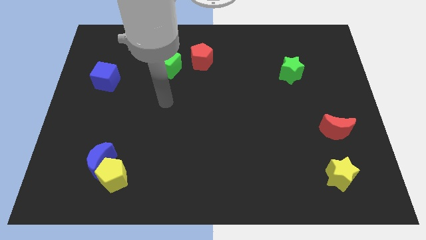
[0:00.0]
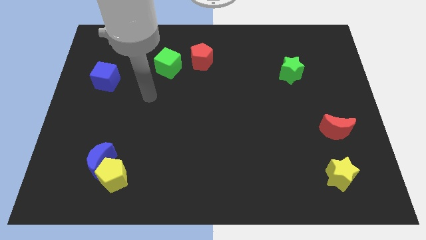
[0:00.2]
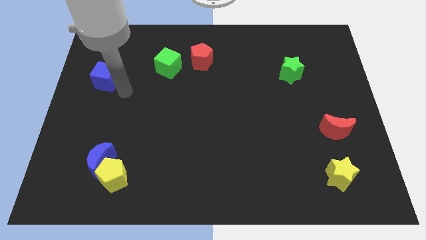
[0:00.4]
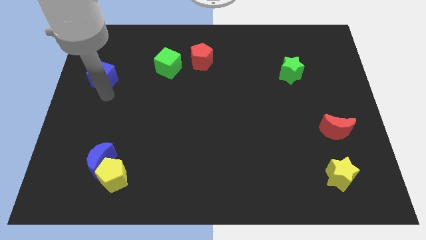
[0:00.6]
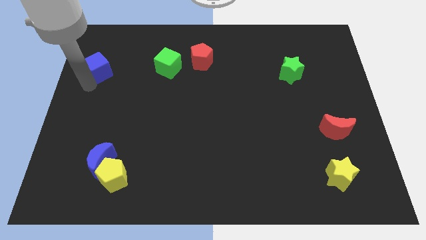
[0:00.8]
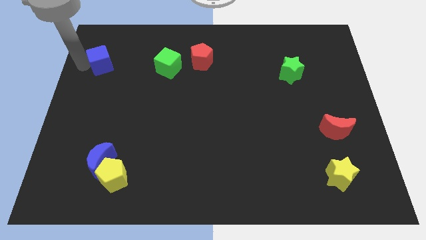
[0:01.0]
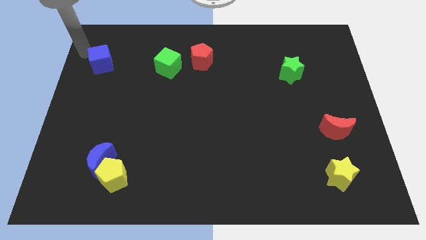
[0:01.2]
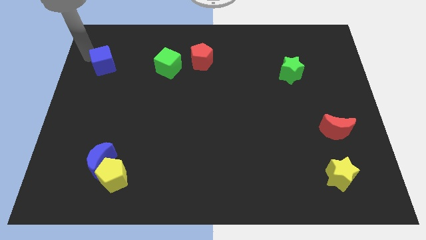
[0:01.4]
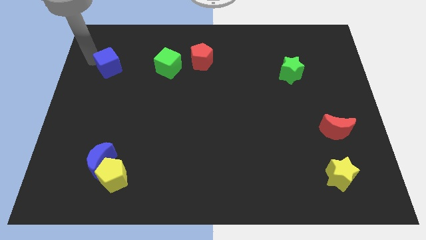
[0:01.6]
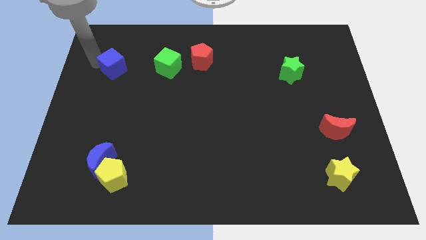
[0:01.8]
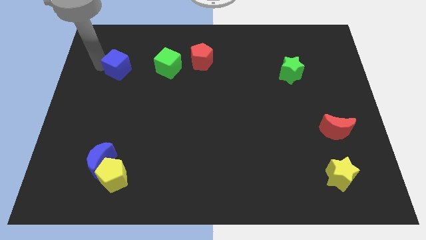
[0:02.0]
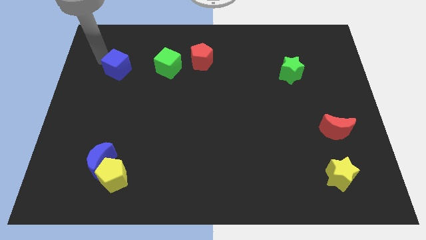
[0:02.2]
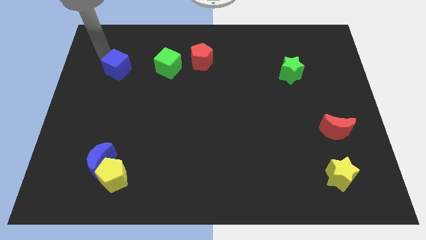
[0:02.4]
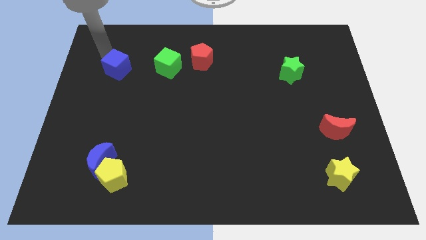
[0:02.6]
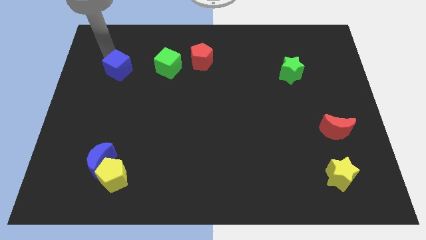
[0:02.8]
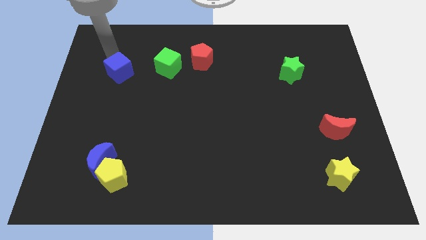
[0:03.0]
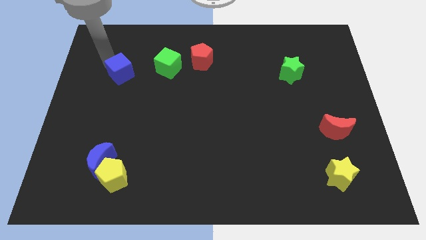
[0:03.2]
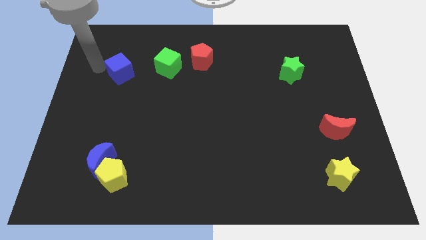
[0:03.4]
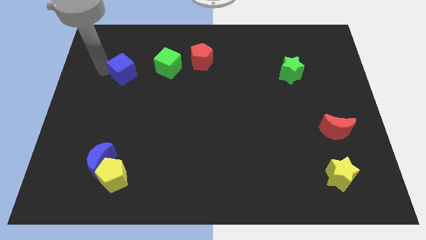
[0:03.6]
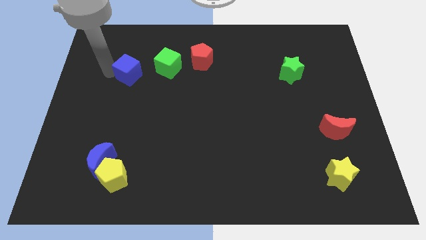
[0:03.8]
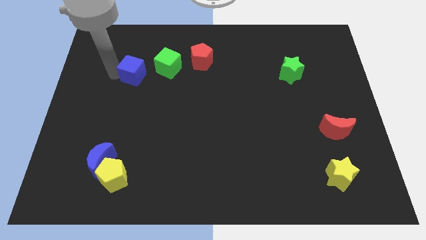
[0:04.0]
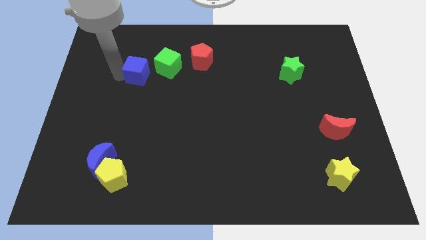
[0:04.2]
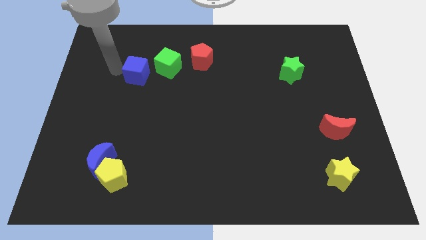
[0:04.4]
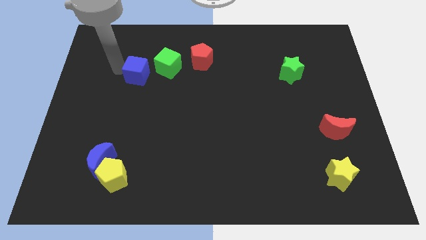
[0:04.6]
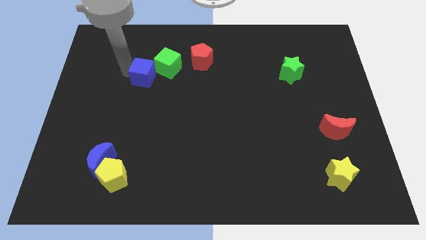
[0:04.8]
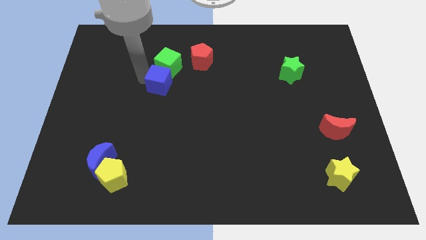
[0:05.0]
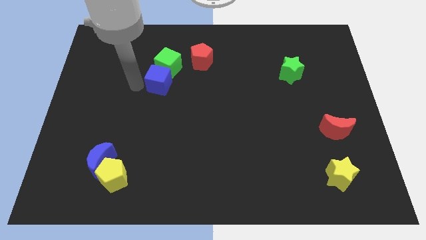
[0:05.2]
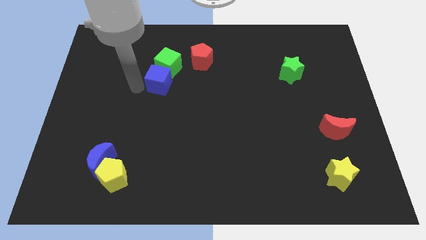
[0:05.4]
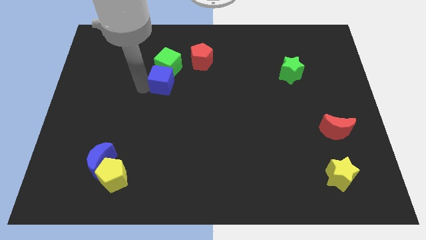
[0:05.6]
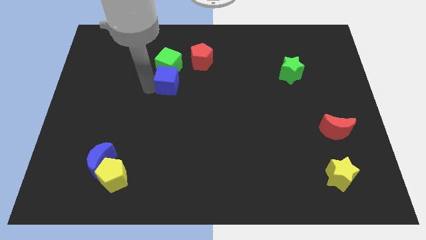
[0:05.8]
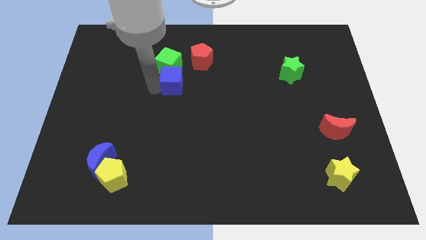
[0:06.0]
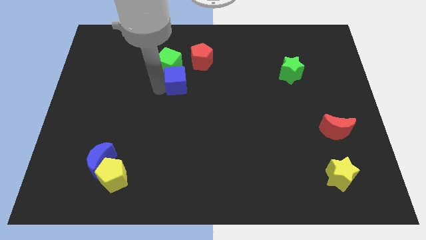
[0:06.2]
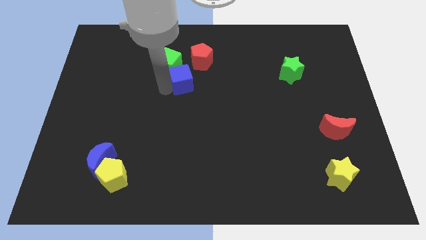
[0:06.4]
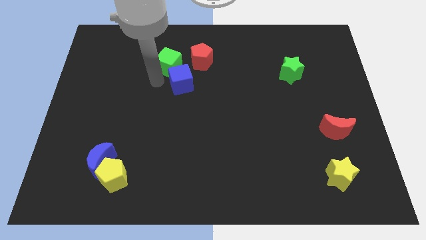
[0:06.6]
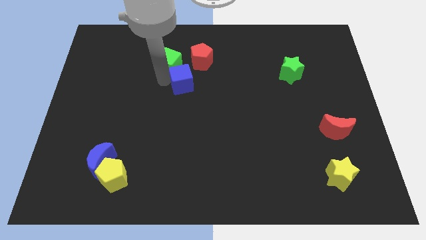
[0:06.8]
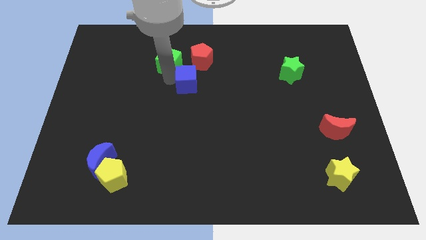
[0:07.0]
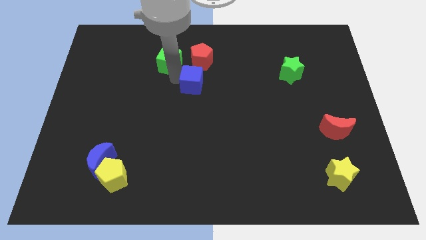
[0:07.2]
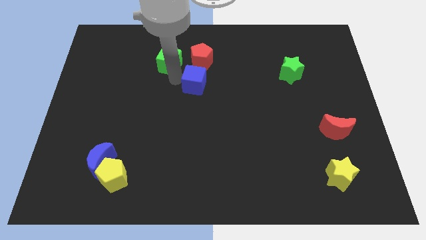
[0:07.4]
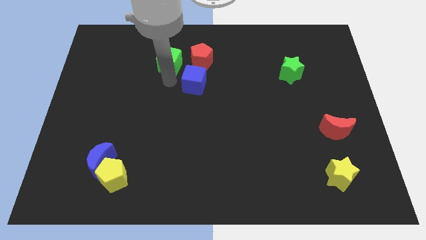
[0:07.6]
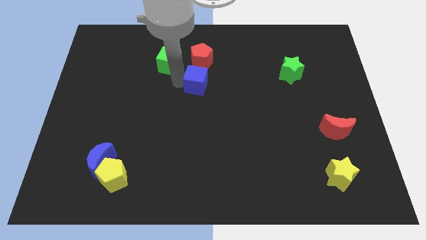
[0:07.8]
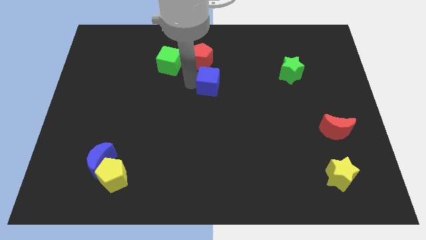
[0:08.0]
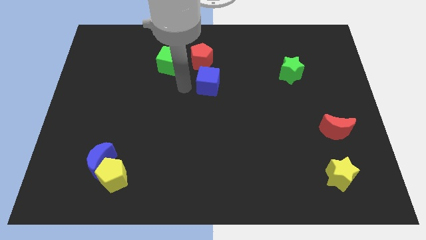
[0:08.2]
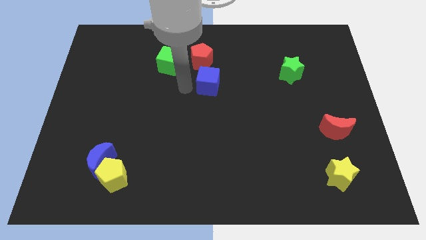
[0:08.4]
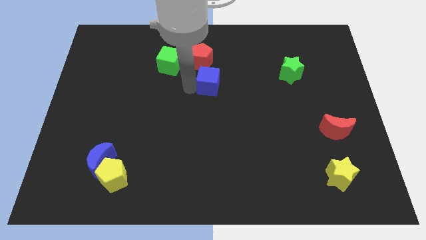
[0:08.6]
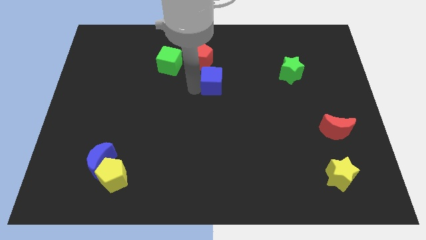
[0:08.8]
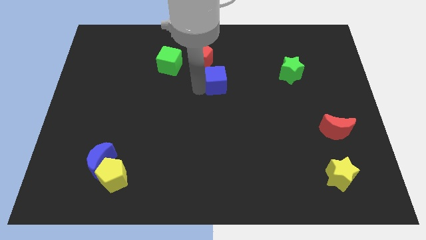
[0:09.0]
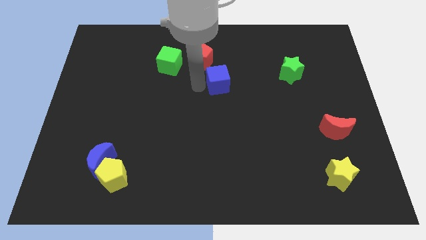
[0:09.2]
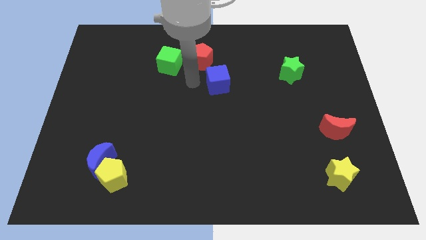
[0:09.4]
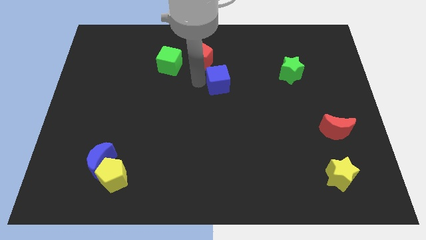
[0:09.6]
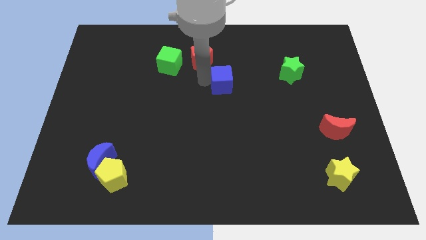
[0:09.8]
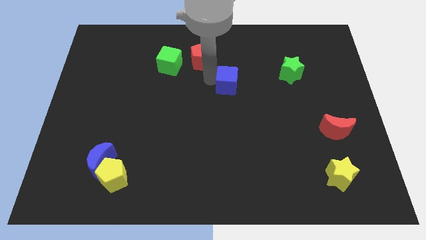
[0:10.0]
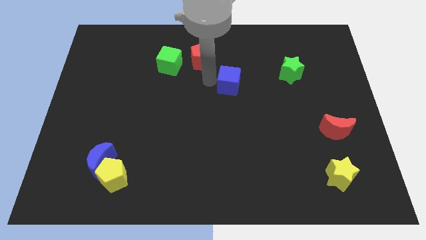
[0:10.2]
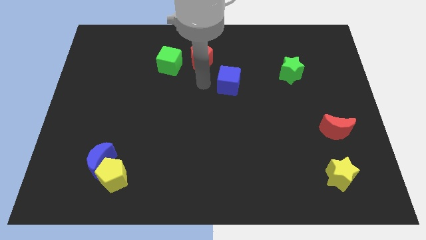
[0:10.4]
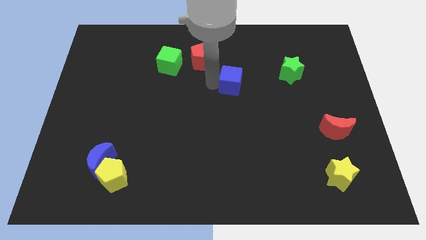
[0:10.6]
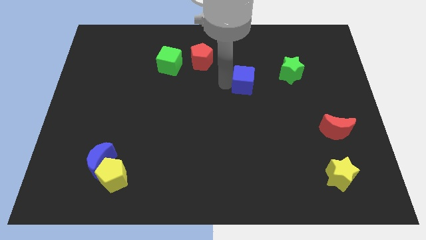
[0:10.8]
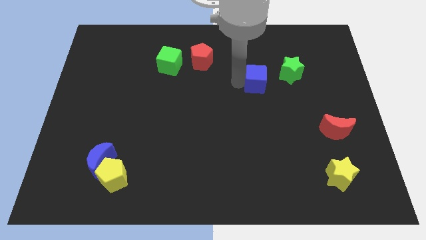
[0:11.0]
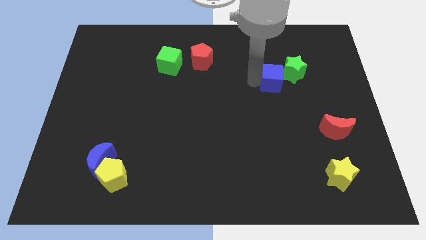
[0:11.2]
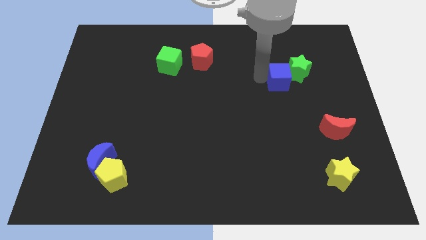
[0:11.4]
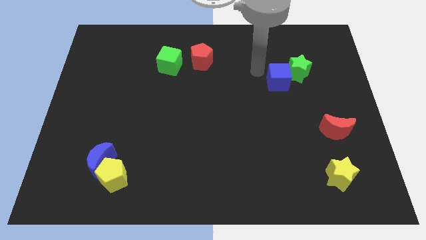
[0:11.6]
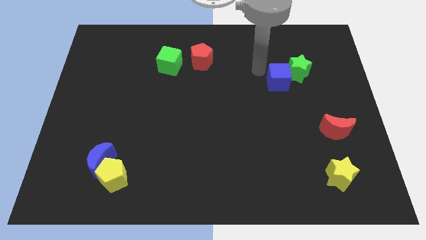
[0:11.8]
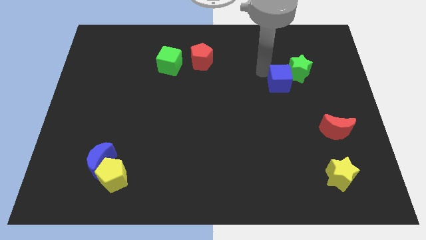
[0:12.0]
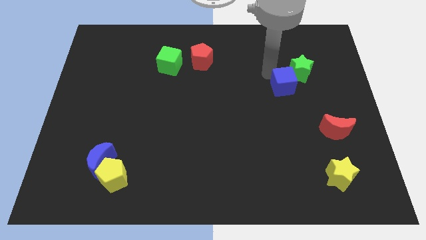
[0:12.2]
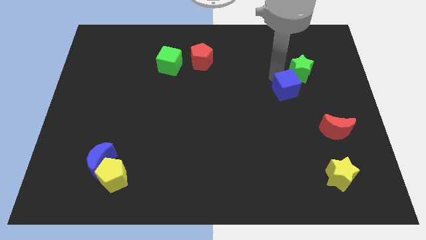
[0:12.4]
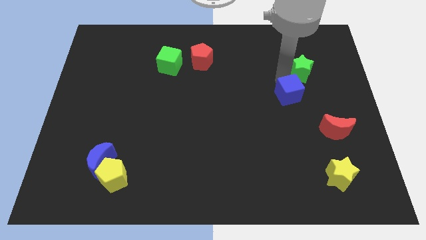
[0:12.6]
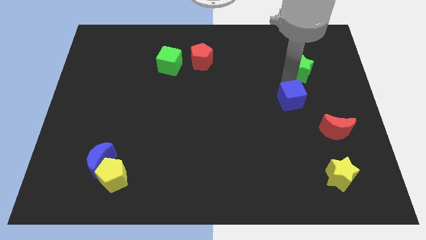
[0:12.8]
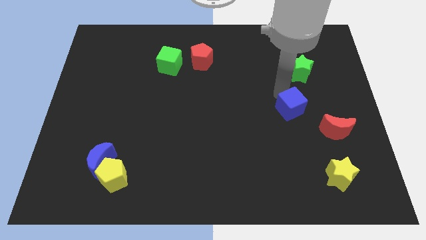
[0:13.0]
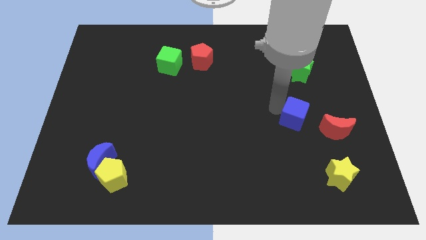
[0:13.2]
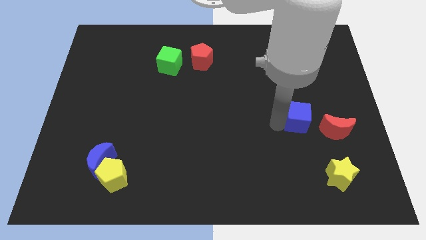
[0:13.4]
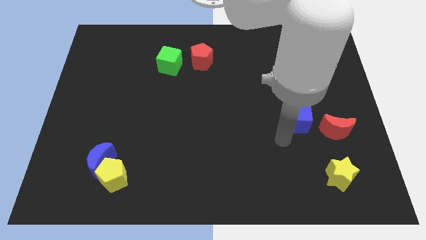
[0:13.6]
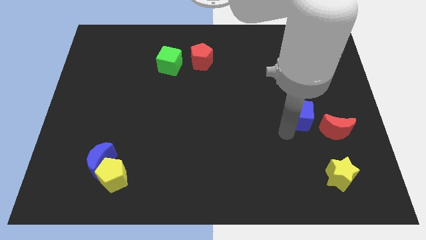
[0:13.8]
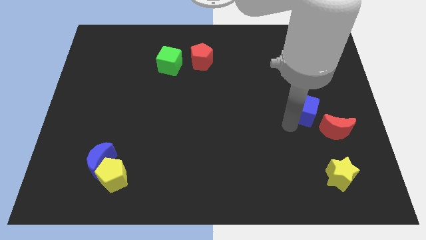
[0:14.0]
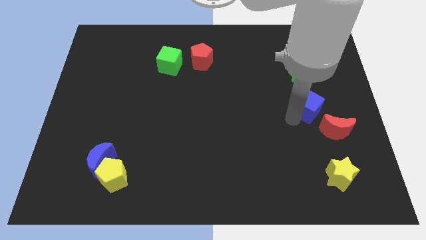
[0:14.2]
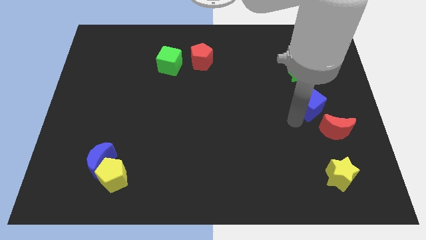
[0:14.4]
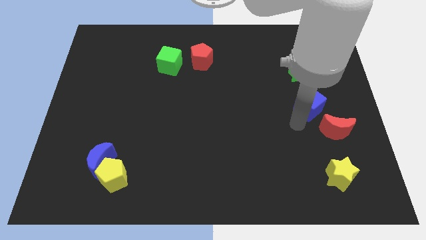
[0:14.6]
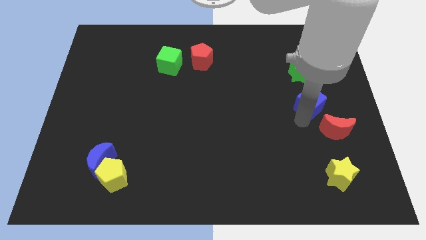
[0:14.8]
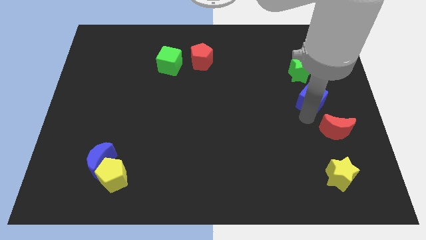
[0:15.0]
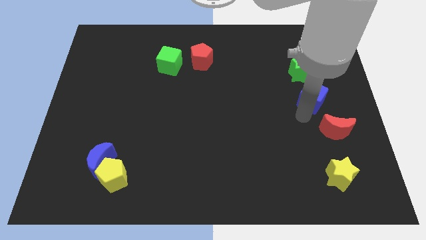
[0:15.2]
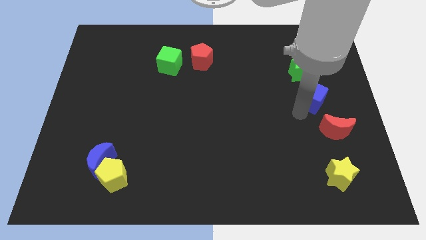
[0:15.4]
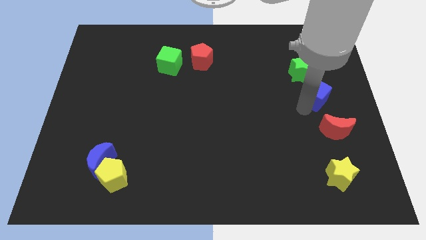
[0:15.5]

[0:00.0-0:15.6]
slide the blue cube to the bottom right side of the green star
